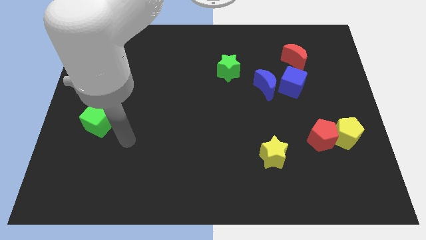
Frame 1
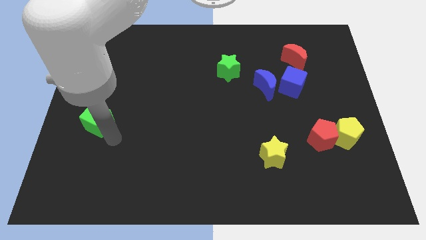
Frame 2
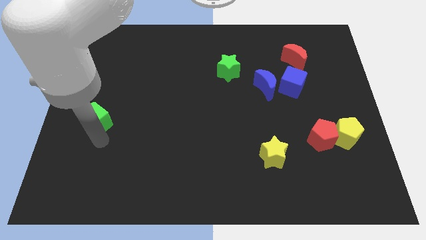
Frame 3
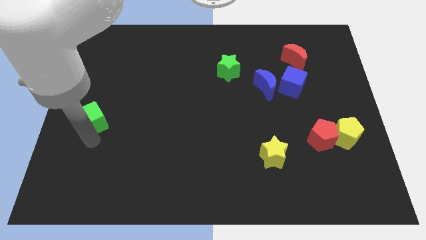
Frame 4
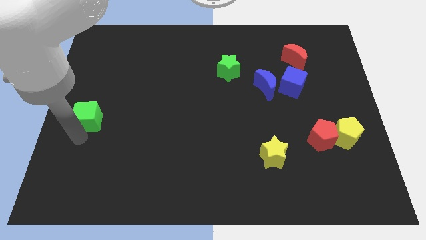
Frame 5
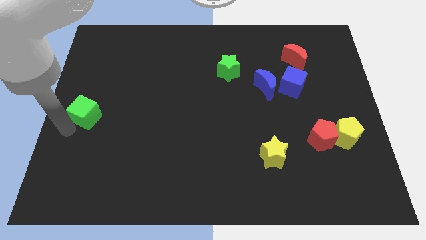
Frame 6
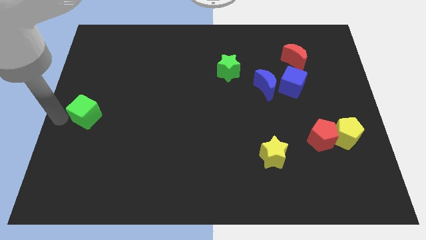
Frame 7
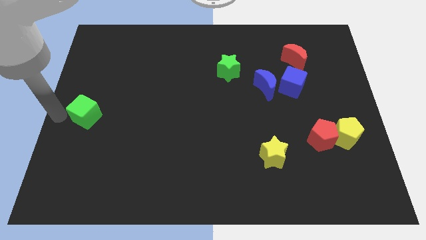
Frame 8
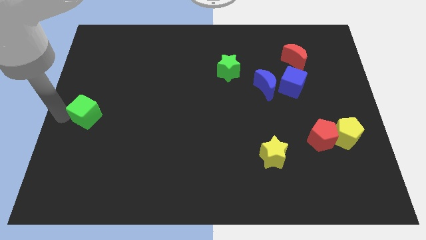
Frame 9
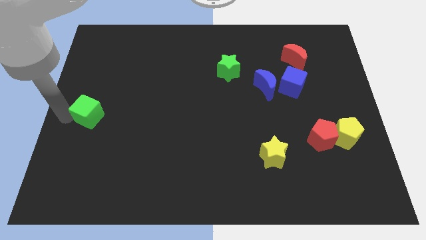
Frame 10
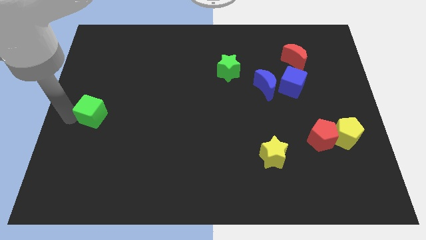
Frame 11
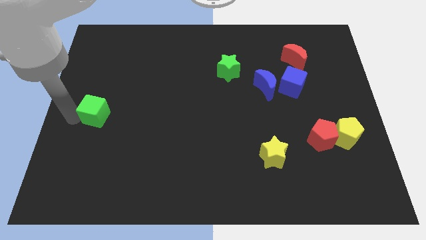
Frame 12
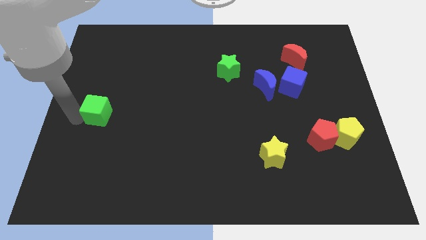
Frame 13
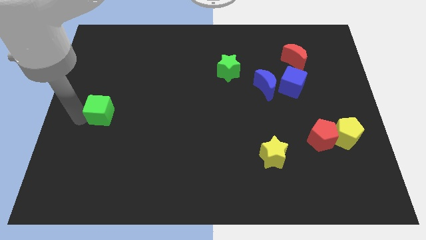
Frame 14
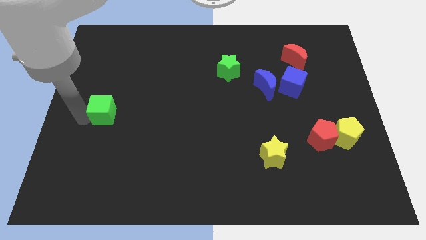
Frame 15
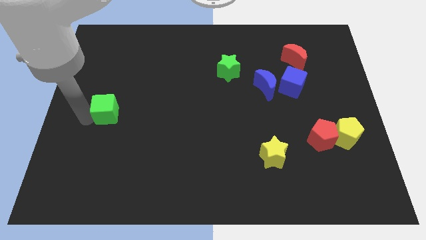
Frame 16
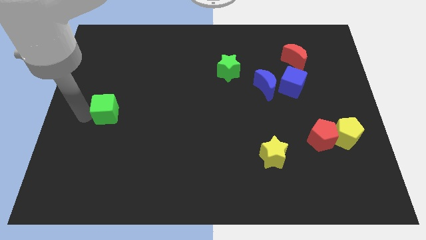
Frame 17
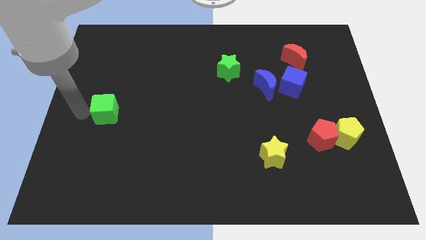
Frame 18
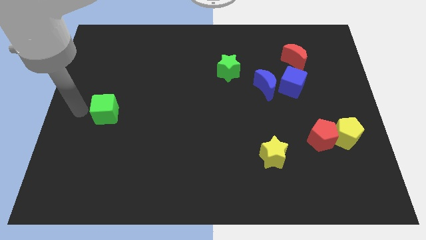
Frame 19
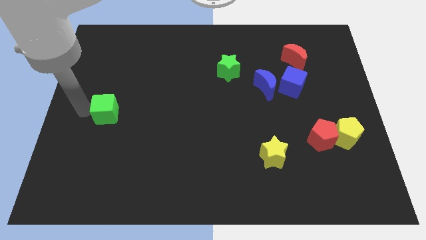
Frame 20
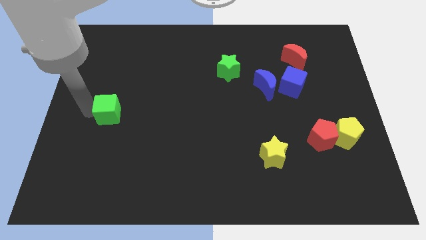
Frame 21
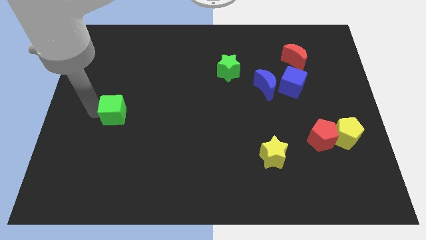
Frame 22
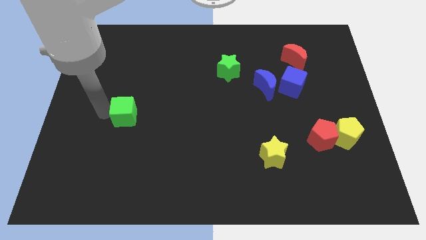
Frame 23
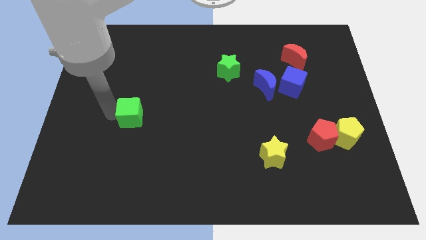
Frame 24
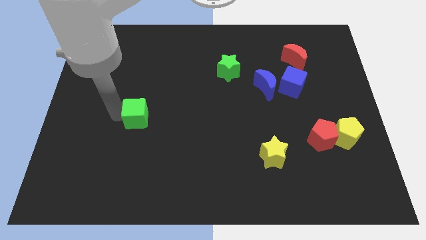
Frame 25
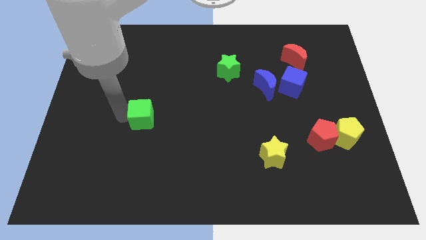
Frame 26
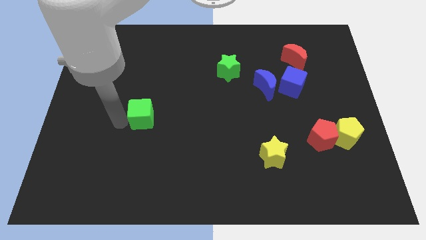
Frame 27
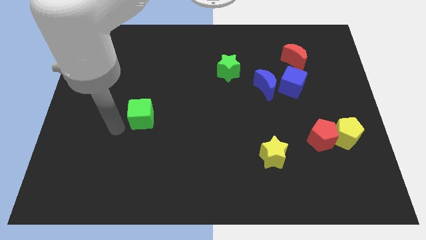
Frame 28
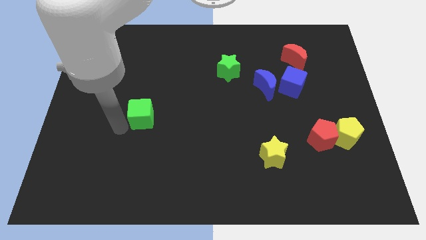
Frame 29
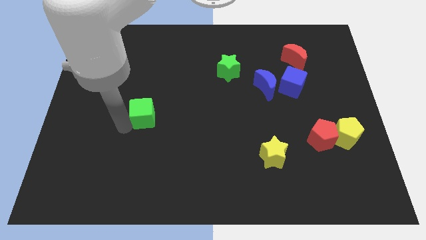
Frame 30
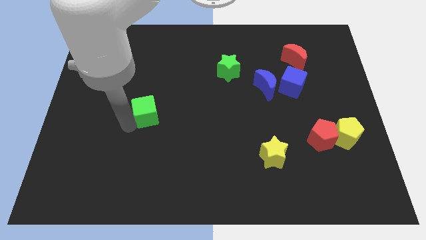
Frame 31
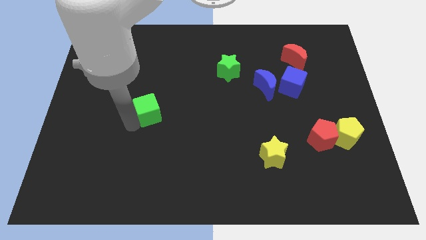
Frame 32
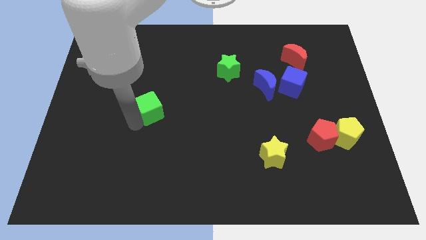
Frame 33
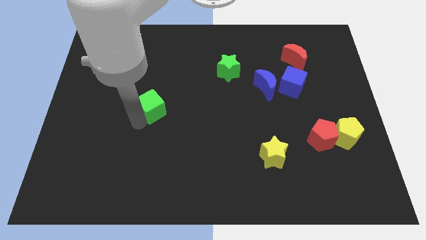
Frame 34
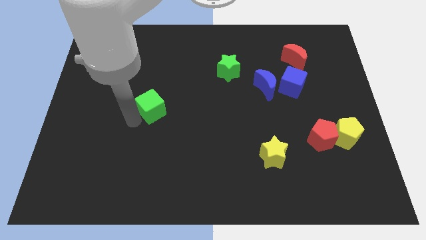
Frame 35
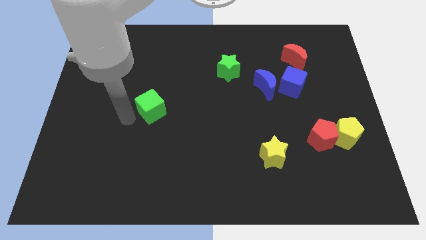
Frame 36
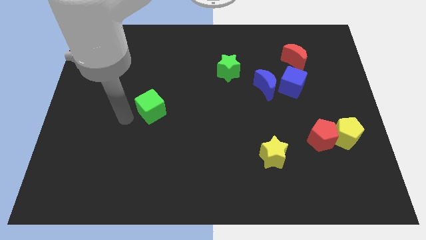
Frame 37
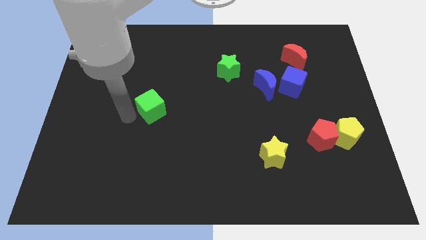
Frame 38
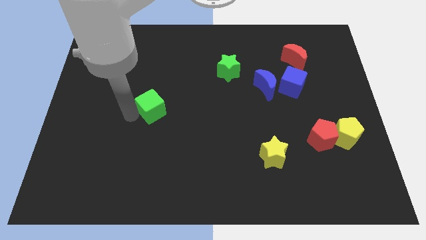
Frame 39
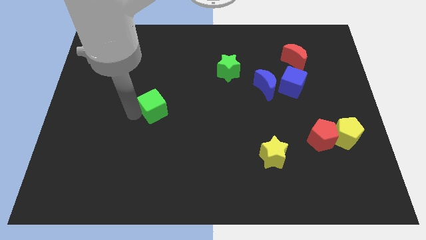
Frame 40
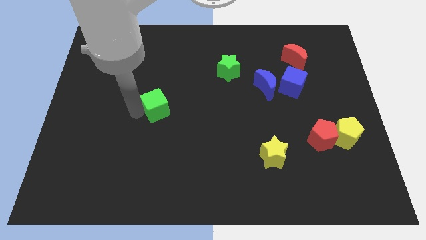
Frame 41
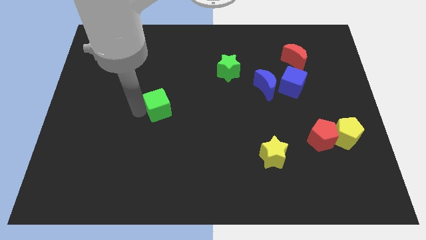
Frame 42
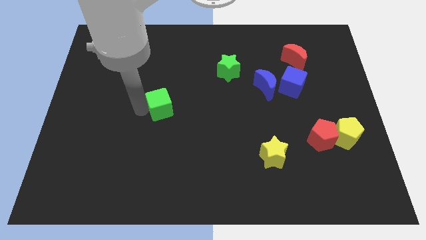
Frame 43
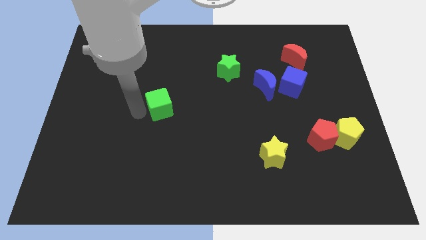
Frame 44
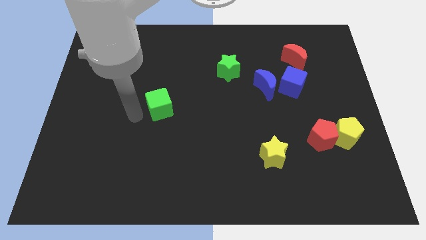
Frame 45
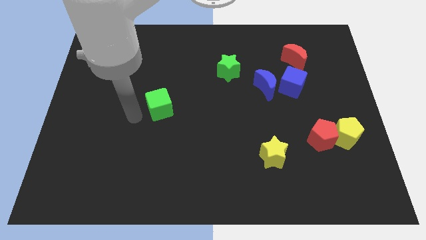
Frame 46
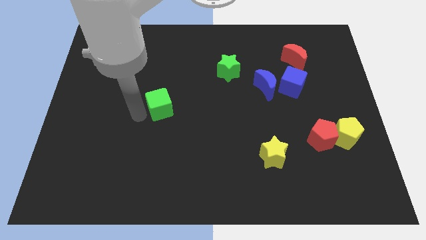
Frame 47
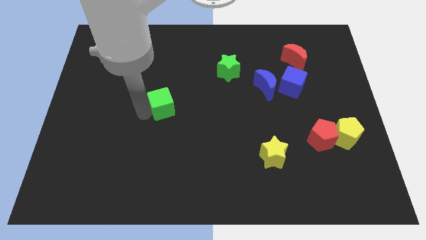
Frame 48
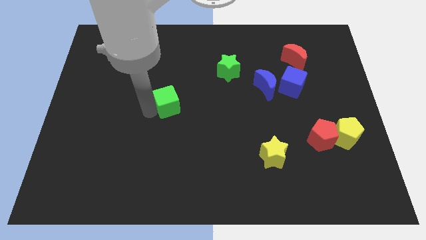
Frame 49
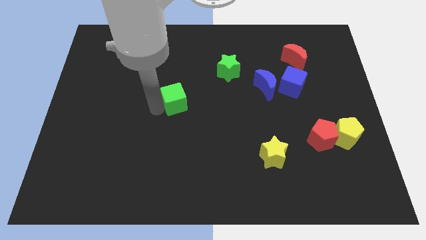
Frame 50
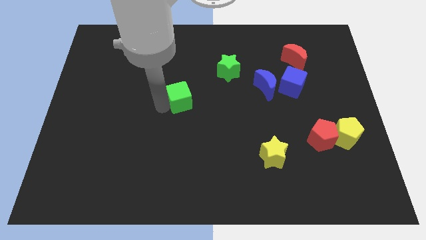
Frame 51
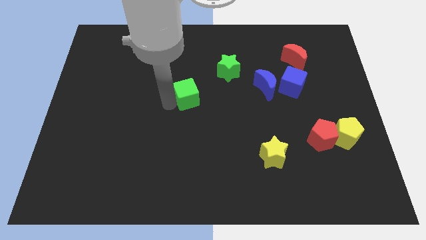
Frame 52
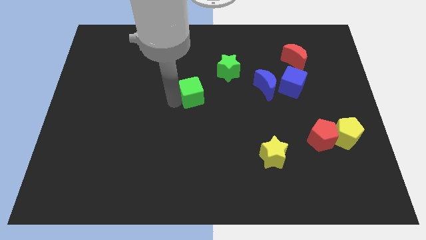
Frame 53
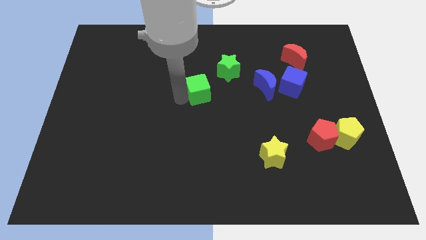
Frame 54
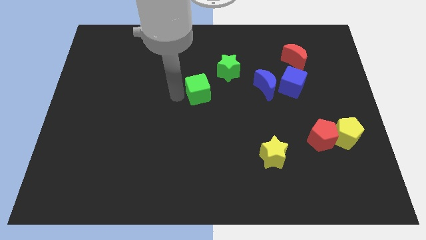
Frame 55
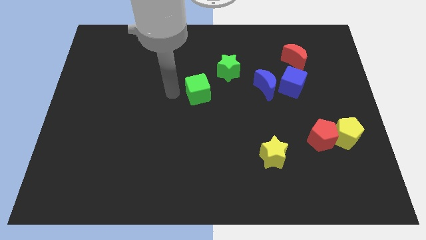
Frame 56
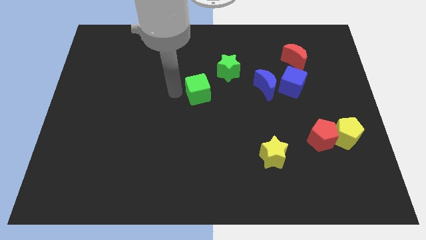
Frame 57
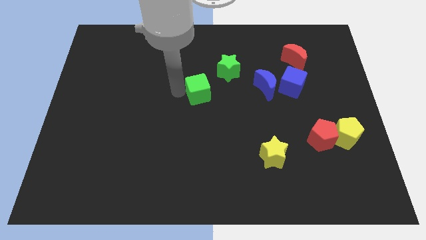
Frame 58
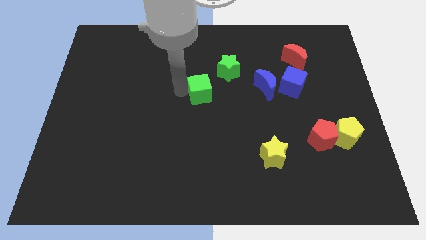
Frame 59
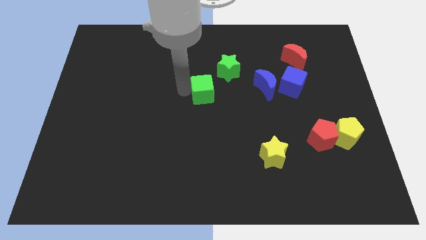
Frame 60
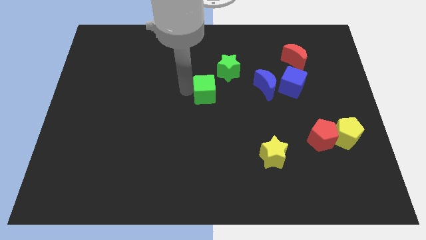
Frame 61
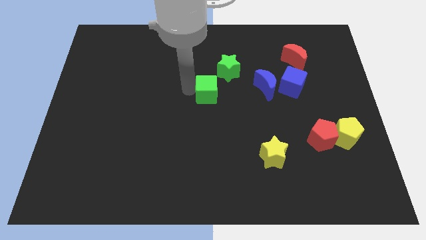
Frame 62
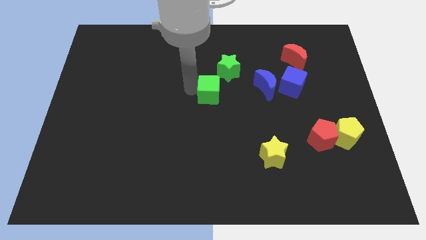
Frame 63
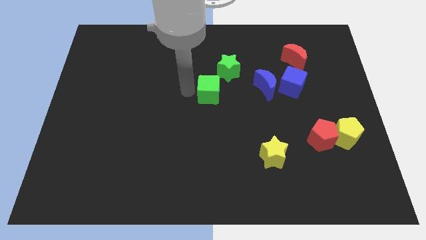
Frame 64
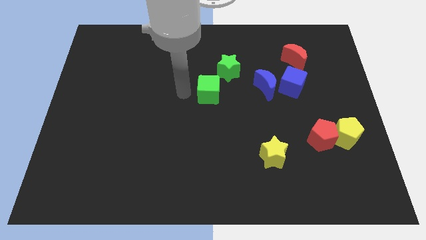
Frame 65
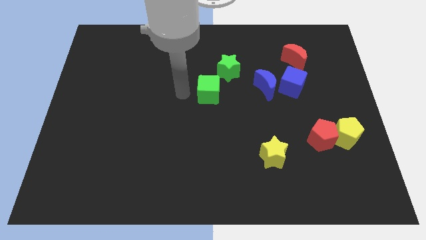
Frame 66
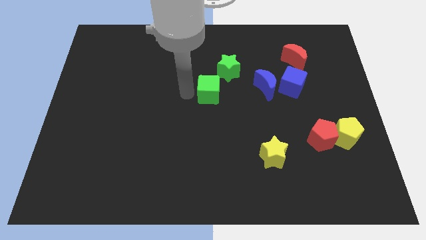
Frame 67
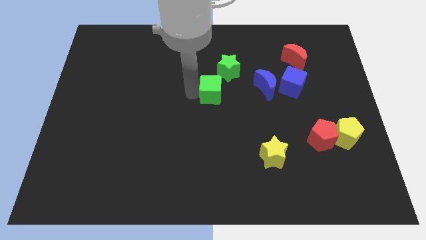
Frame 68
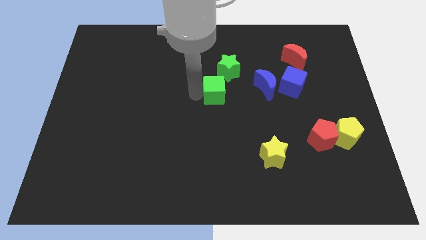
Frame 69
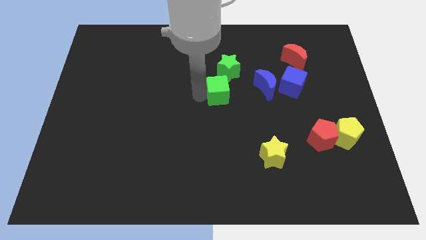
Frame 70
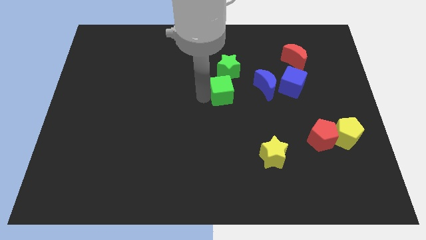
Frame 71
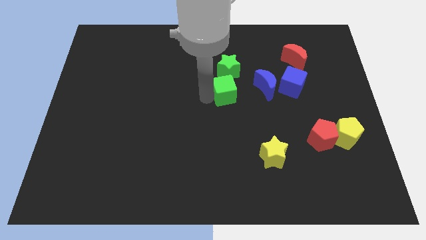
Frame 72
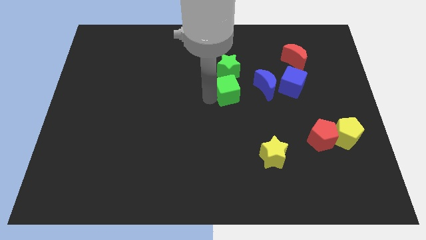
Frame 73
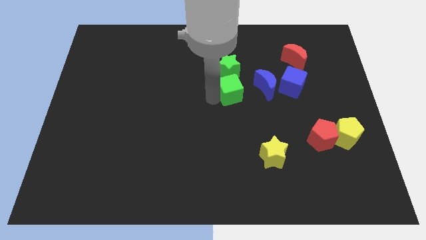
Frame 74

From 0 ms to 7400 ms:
slide the green cube to the left side of the blue cube
